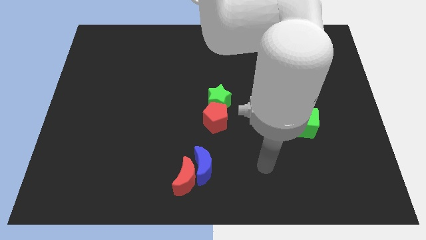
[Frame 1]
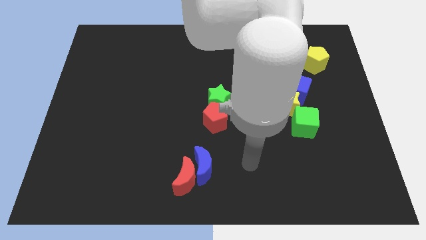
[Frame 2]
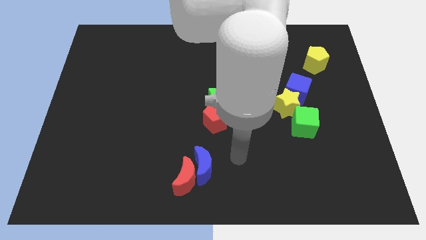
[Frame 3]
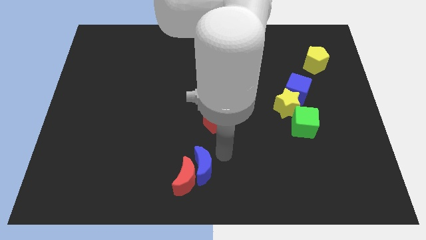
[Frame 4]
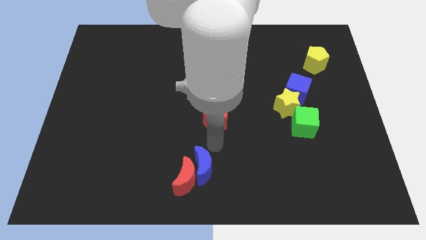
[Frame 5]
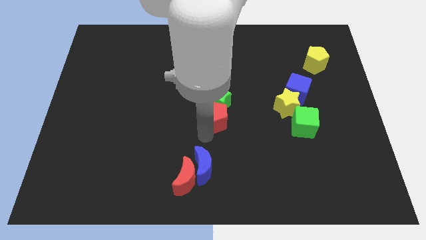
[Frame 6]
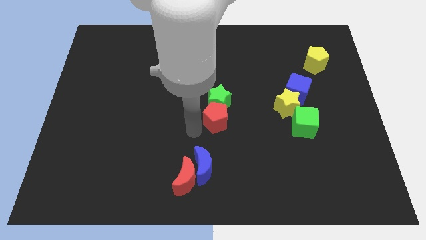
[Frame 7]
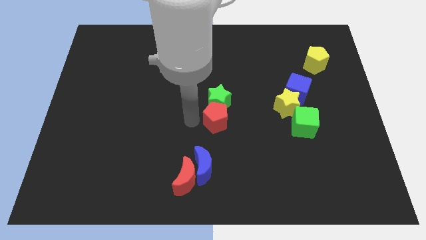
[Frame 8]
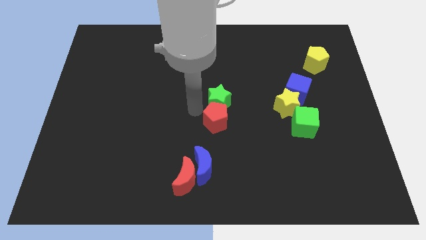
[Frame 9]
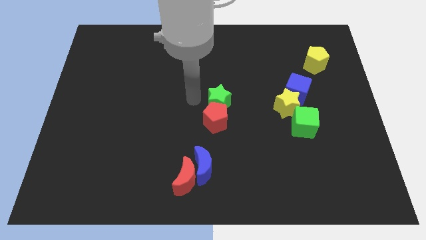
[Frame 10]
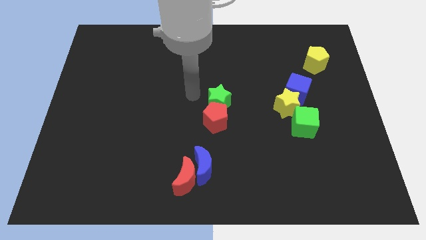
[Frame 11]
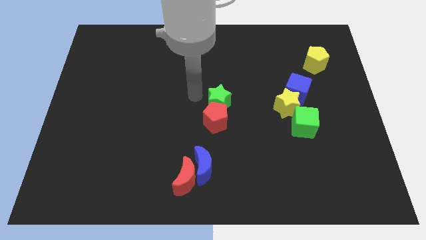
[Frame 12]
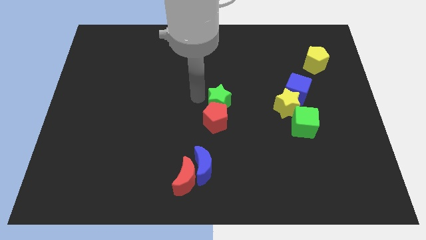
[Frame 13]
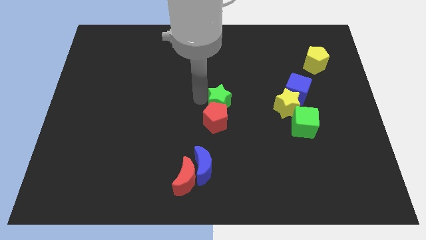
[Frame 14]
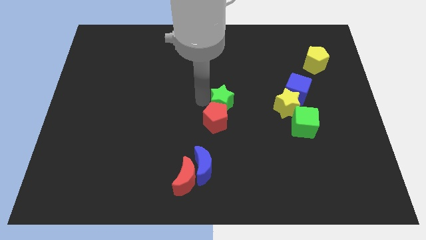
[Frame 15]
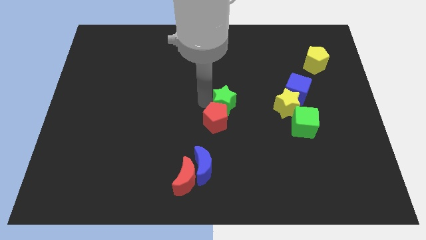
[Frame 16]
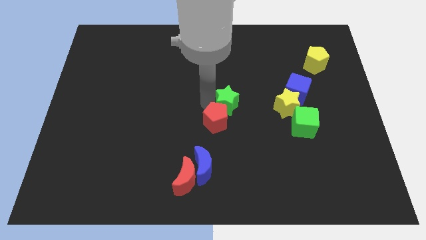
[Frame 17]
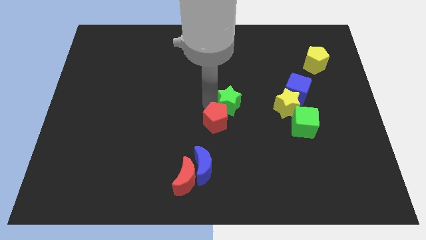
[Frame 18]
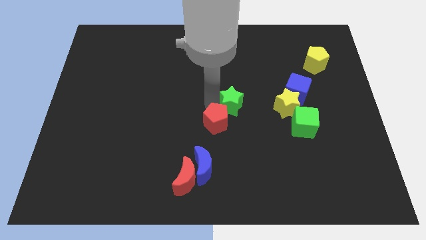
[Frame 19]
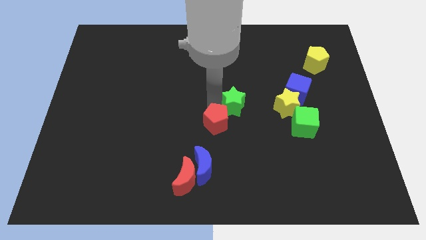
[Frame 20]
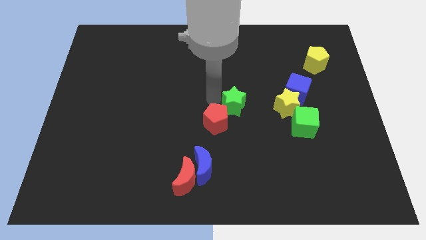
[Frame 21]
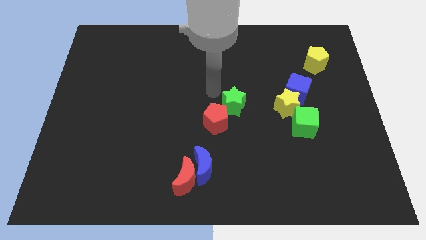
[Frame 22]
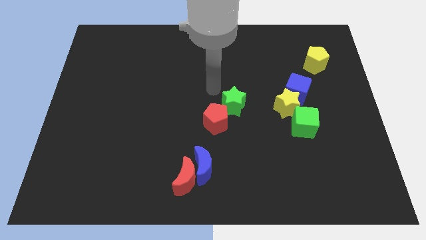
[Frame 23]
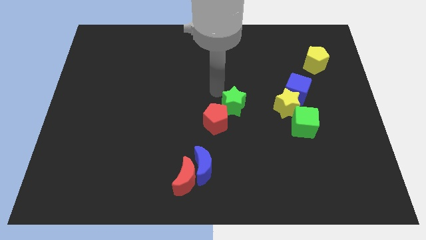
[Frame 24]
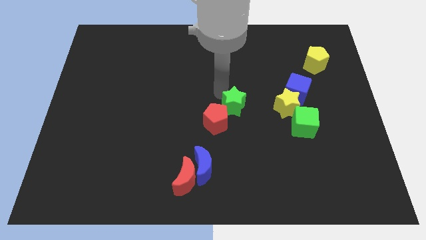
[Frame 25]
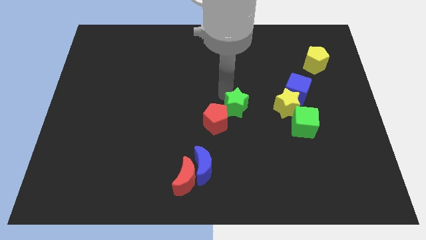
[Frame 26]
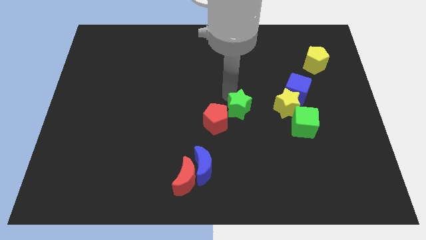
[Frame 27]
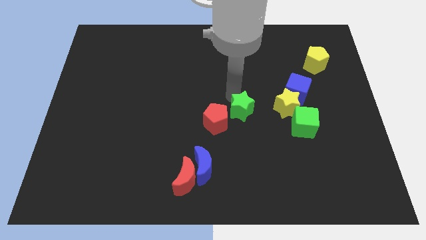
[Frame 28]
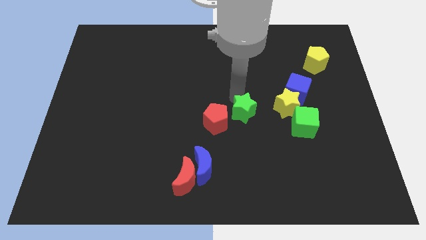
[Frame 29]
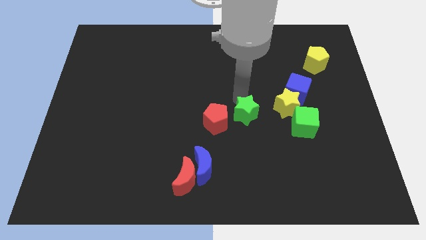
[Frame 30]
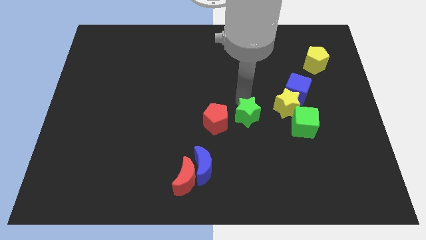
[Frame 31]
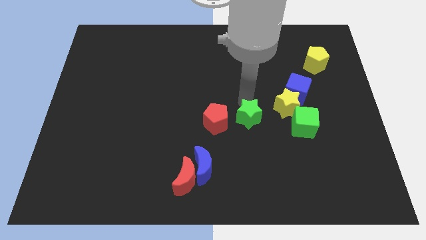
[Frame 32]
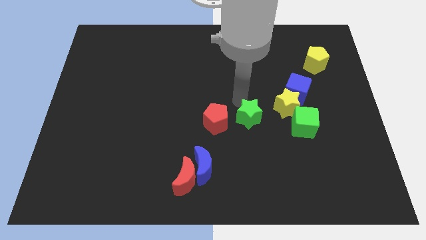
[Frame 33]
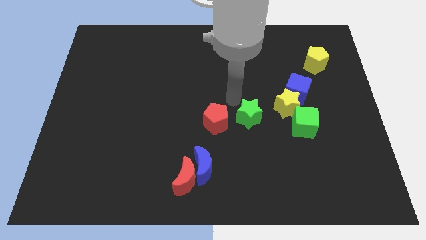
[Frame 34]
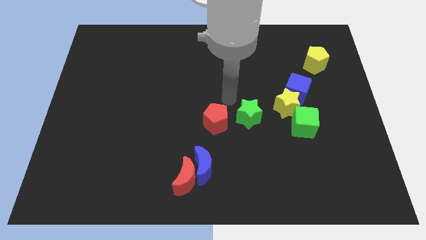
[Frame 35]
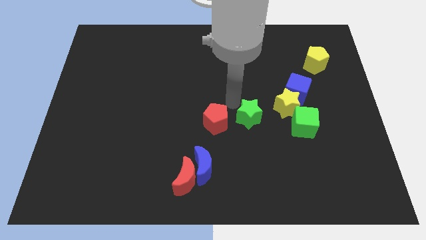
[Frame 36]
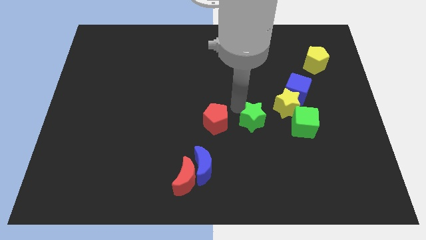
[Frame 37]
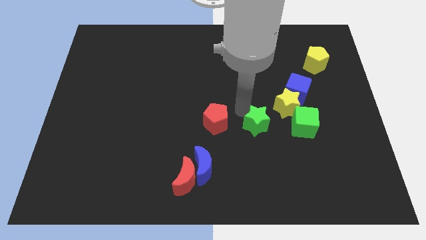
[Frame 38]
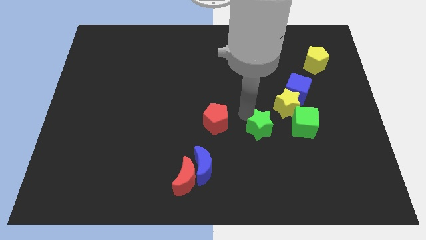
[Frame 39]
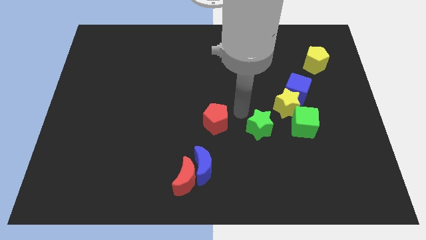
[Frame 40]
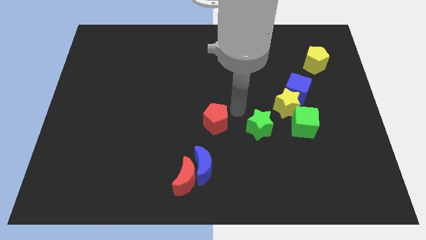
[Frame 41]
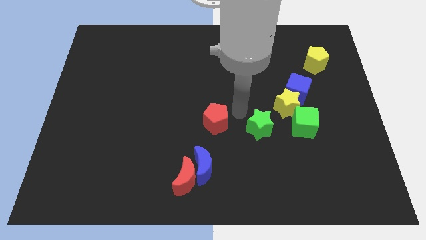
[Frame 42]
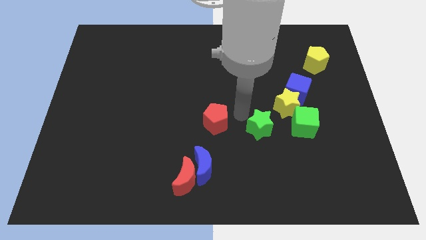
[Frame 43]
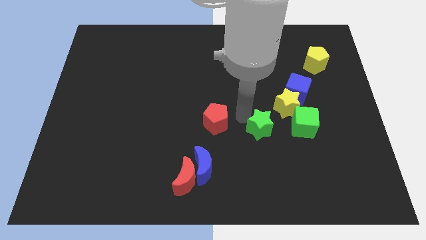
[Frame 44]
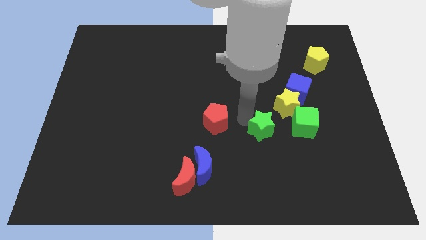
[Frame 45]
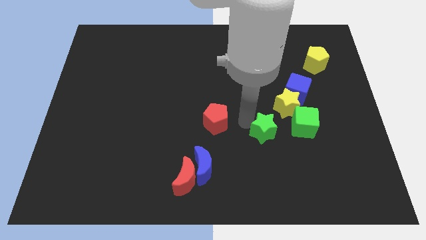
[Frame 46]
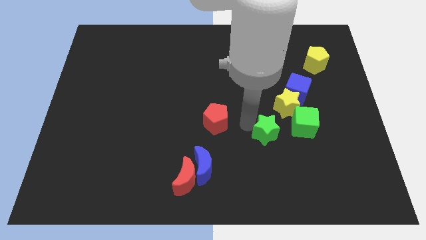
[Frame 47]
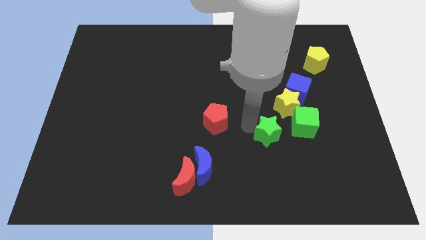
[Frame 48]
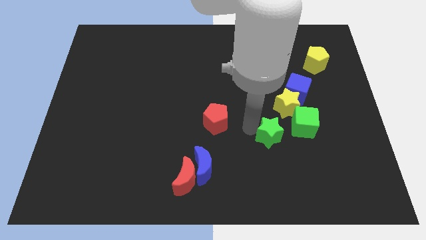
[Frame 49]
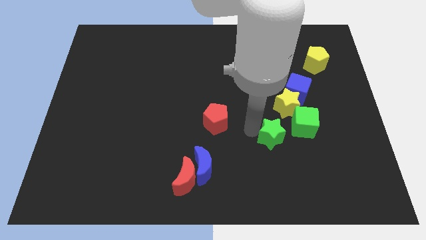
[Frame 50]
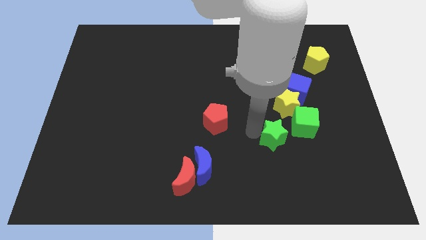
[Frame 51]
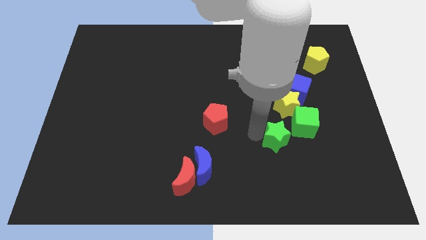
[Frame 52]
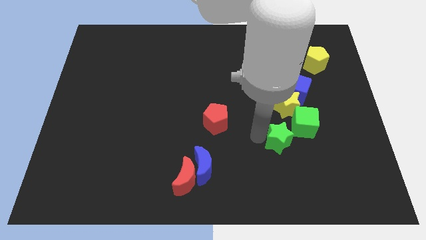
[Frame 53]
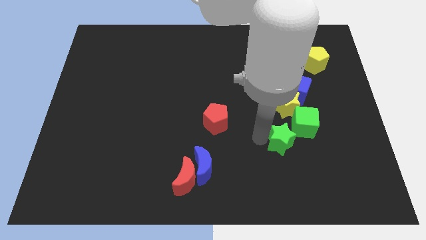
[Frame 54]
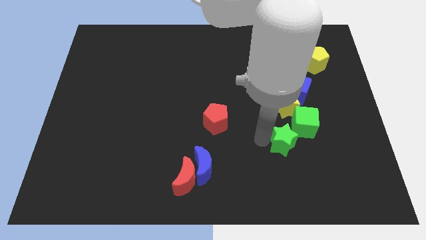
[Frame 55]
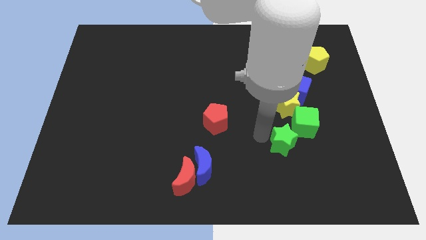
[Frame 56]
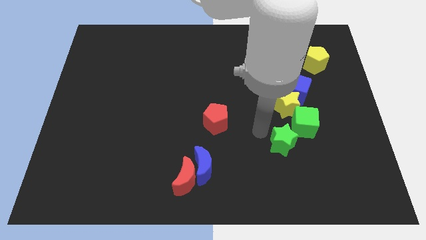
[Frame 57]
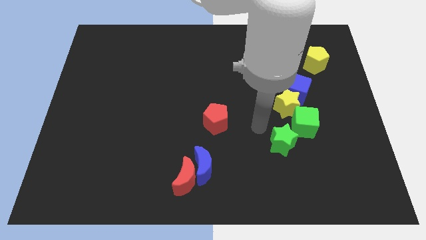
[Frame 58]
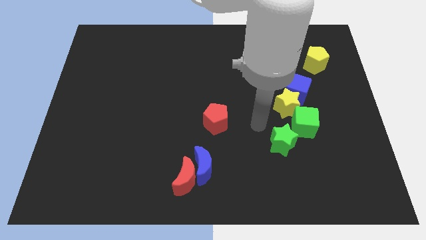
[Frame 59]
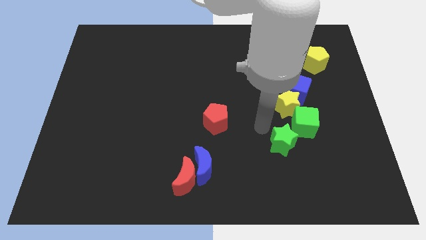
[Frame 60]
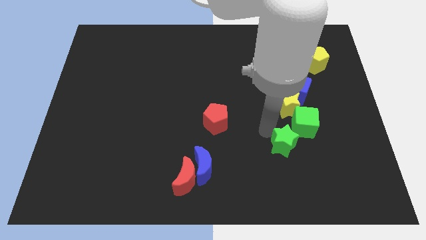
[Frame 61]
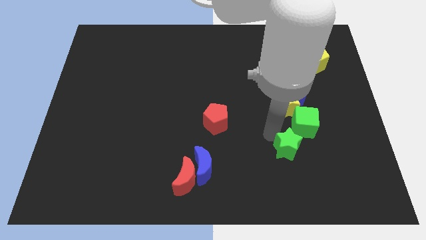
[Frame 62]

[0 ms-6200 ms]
move the green star to the bottom side of the green cube

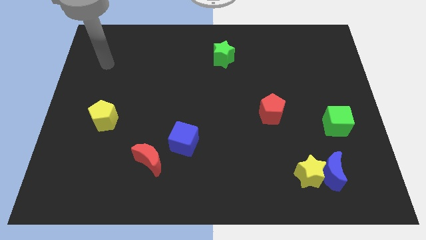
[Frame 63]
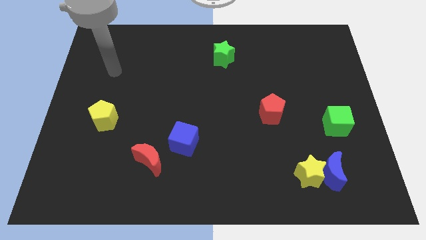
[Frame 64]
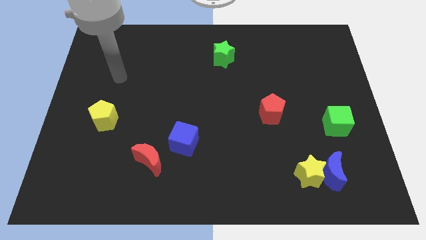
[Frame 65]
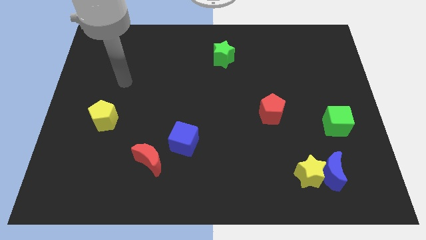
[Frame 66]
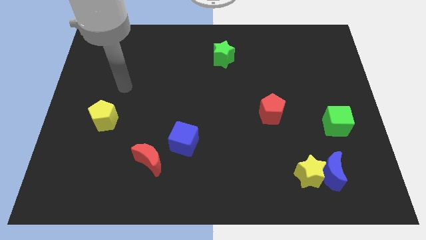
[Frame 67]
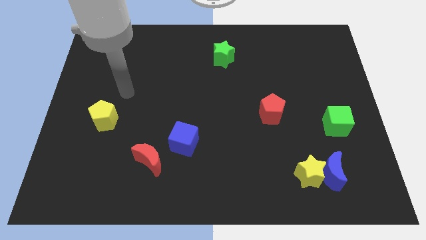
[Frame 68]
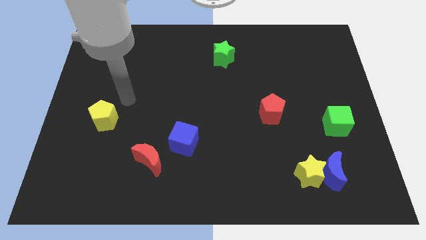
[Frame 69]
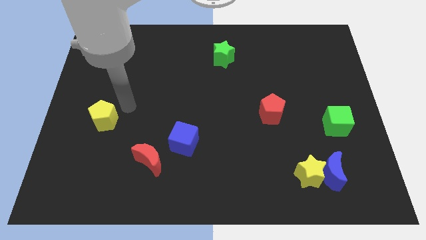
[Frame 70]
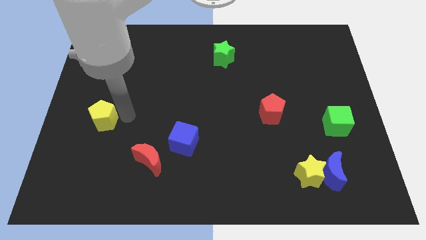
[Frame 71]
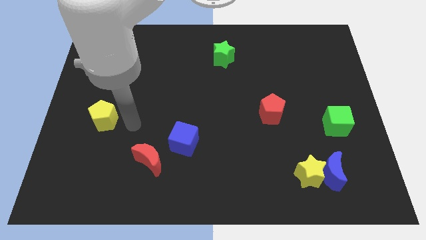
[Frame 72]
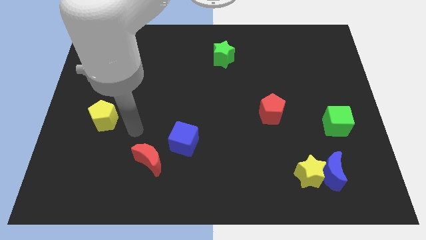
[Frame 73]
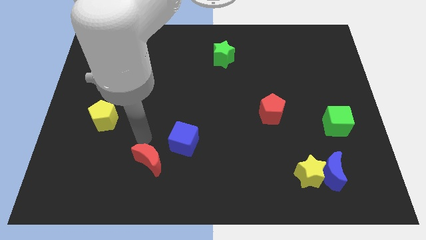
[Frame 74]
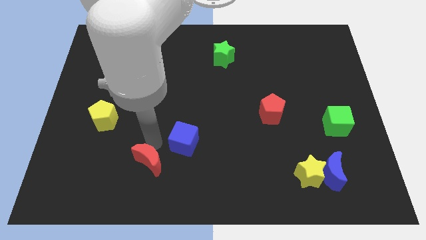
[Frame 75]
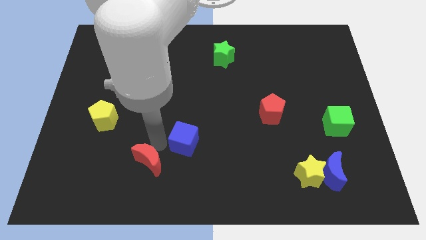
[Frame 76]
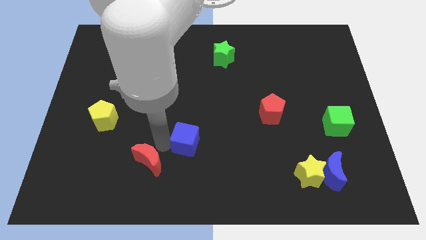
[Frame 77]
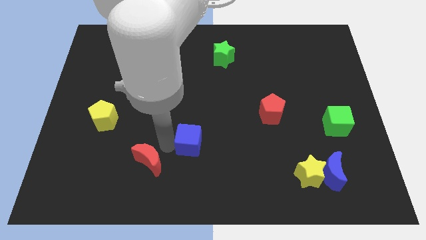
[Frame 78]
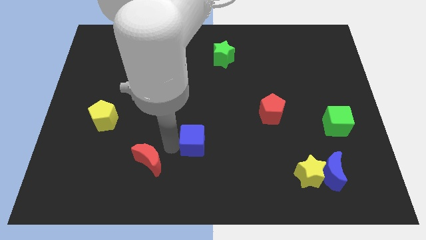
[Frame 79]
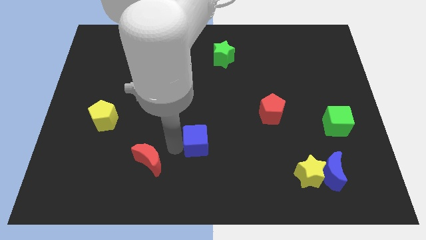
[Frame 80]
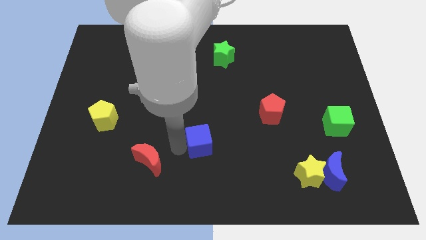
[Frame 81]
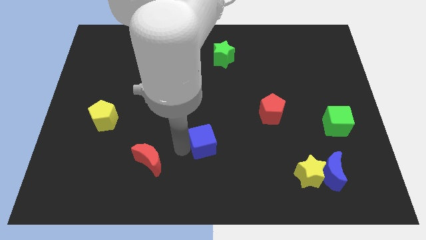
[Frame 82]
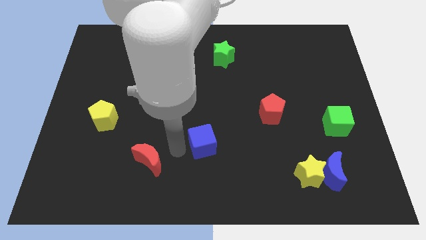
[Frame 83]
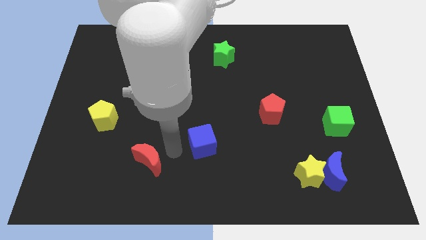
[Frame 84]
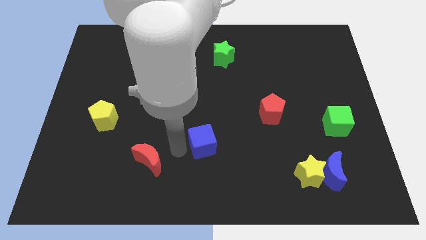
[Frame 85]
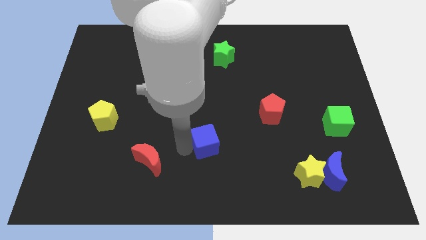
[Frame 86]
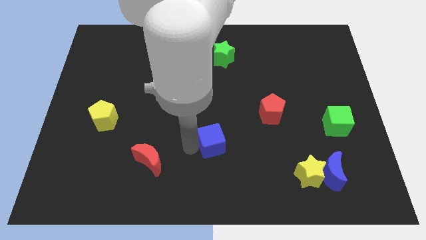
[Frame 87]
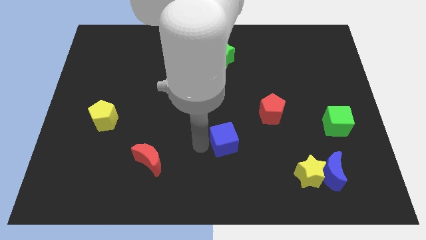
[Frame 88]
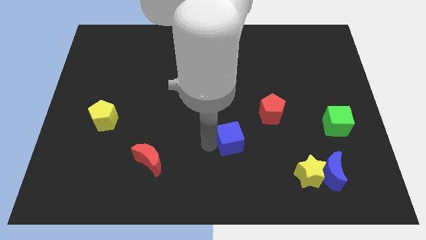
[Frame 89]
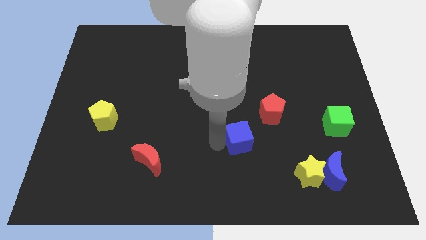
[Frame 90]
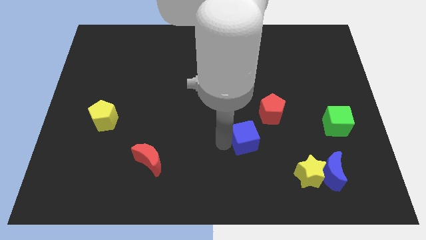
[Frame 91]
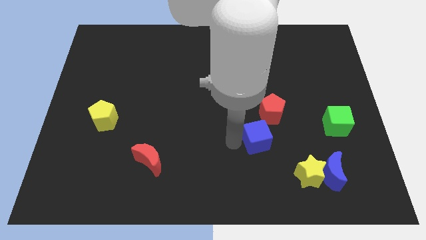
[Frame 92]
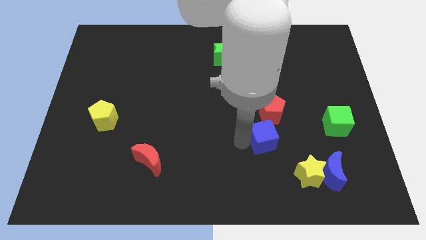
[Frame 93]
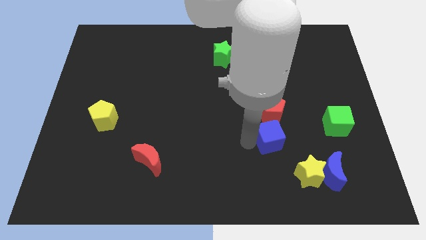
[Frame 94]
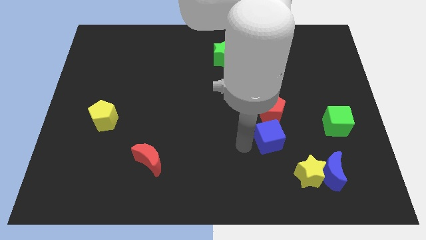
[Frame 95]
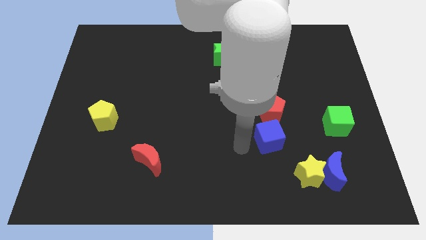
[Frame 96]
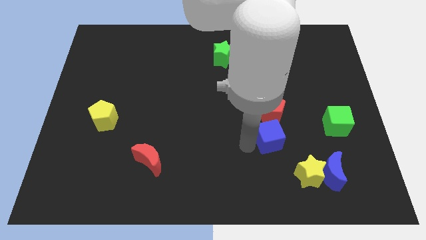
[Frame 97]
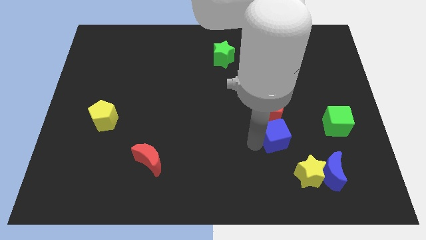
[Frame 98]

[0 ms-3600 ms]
slide the blue cube to the bottom right side of the red pentagon
